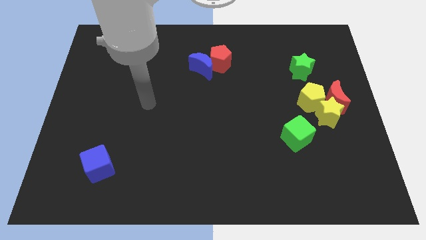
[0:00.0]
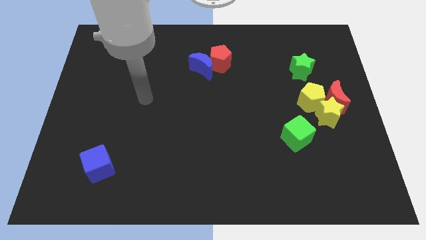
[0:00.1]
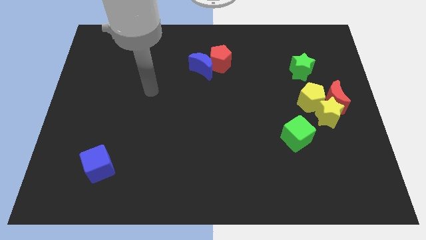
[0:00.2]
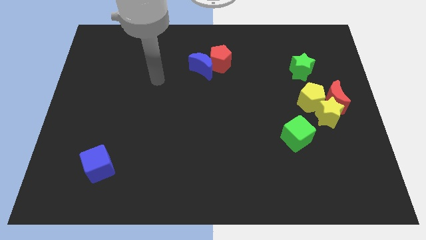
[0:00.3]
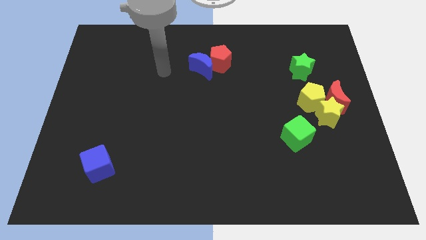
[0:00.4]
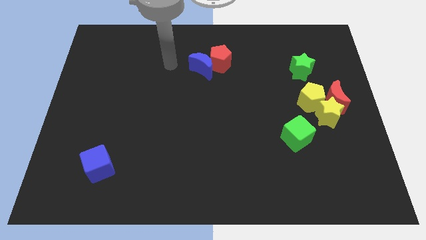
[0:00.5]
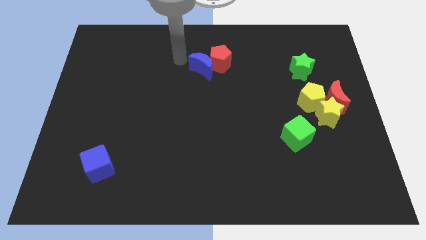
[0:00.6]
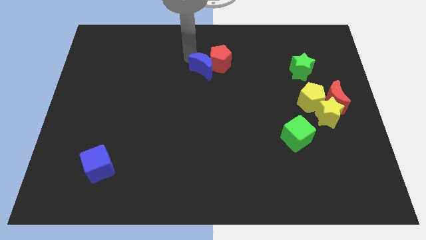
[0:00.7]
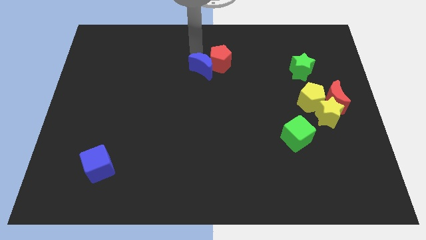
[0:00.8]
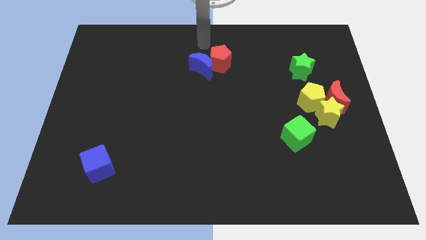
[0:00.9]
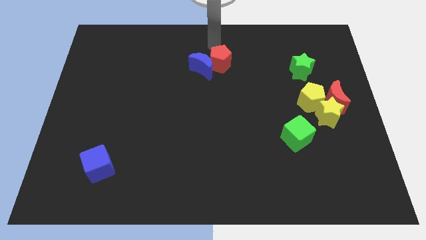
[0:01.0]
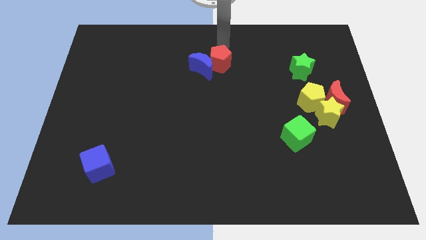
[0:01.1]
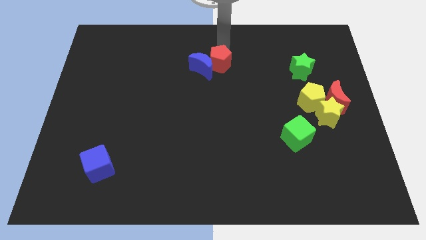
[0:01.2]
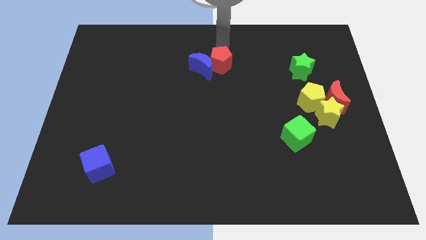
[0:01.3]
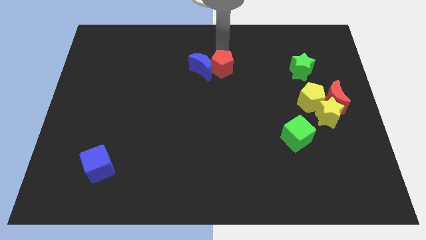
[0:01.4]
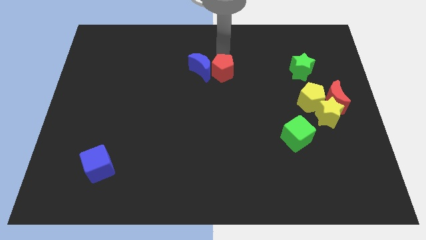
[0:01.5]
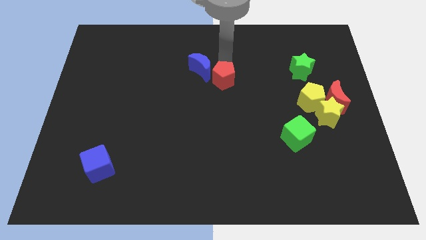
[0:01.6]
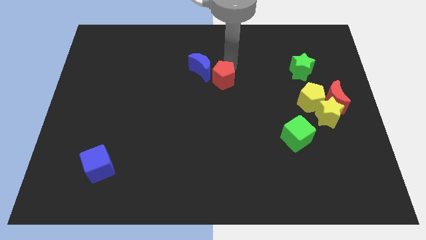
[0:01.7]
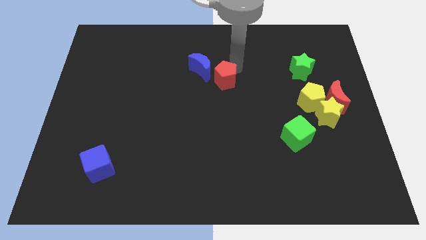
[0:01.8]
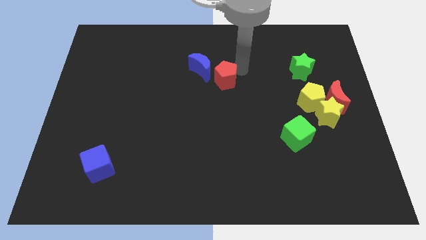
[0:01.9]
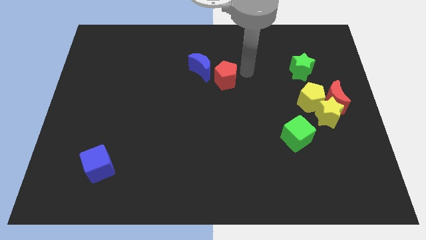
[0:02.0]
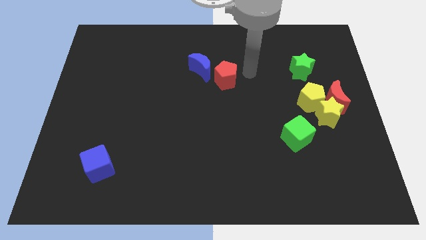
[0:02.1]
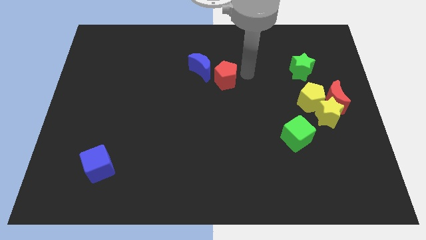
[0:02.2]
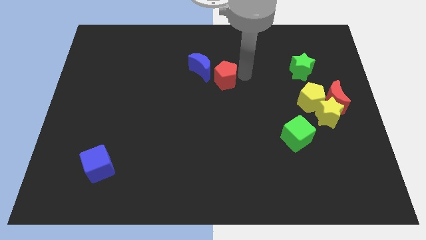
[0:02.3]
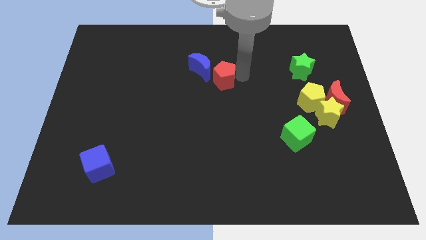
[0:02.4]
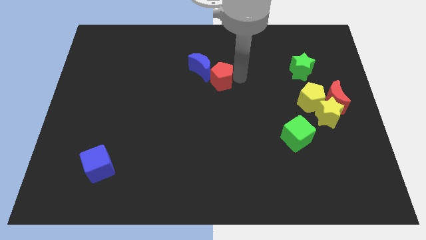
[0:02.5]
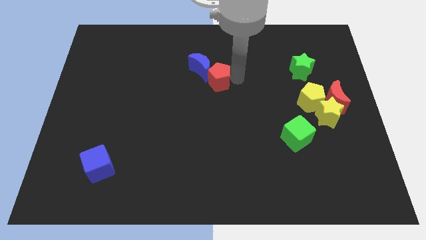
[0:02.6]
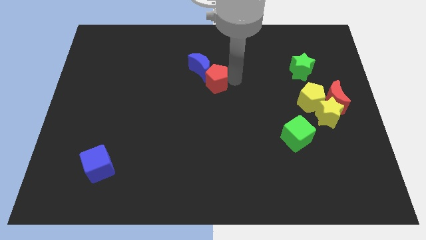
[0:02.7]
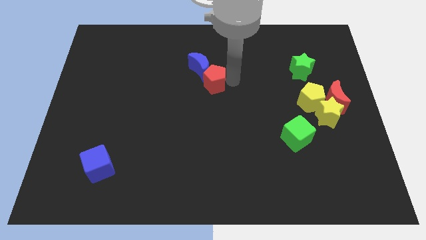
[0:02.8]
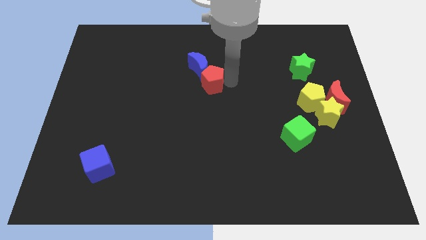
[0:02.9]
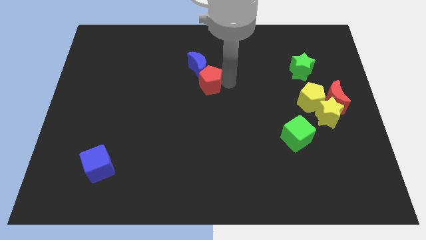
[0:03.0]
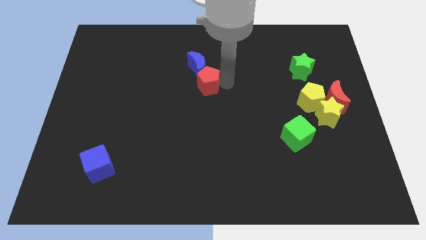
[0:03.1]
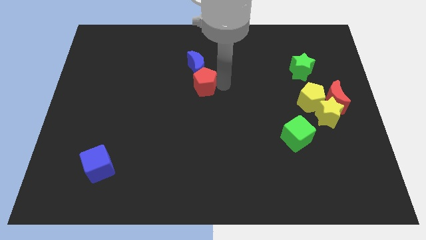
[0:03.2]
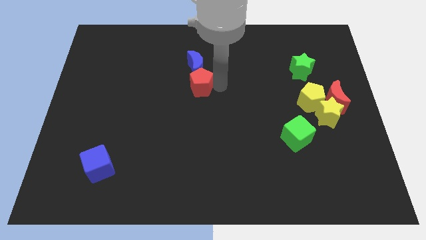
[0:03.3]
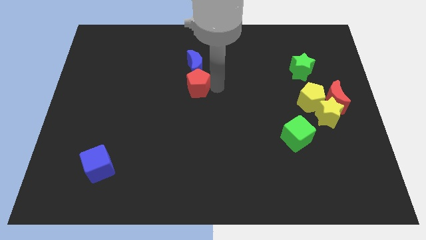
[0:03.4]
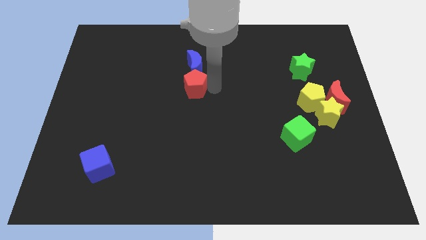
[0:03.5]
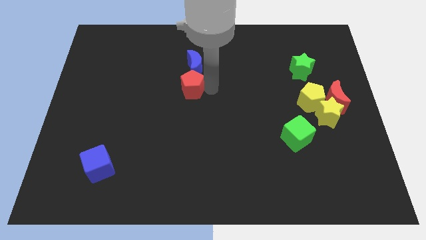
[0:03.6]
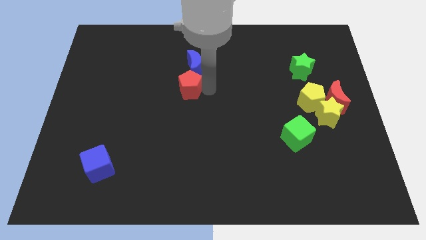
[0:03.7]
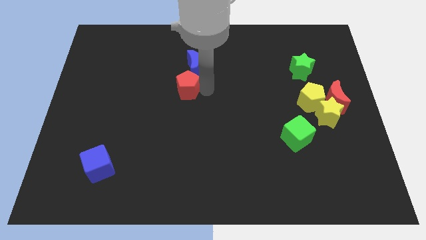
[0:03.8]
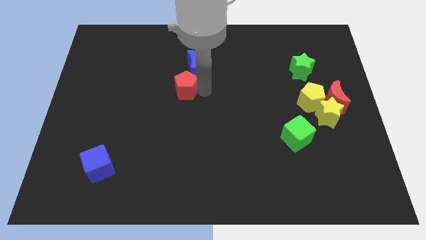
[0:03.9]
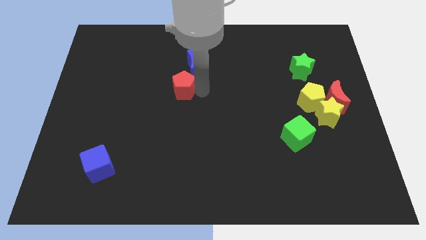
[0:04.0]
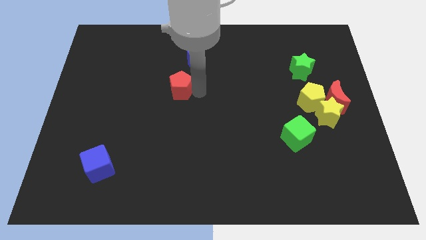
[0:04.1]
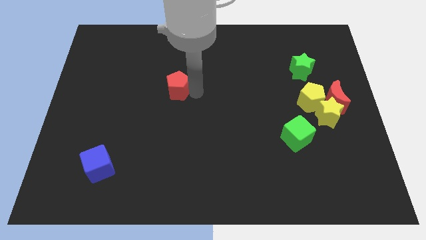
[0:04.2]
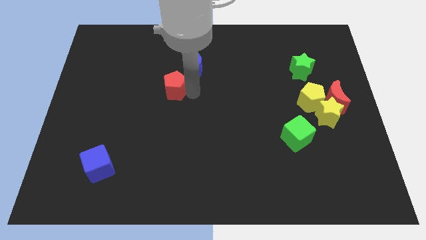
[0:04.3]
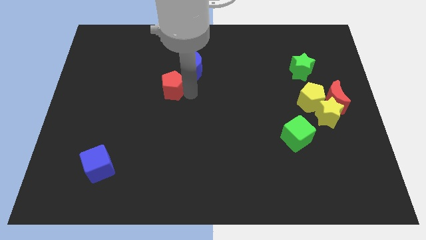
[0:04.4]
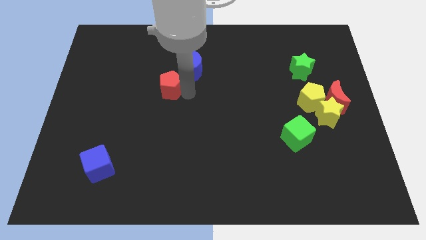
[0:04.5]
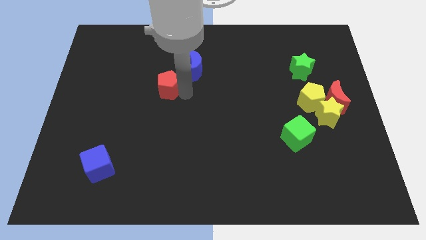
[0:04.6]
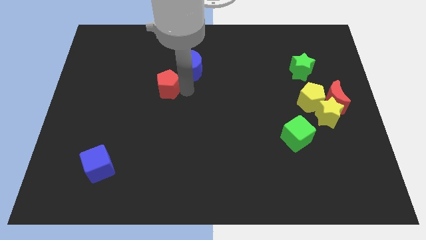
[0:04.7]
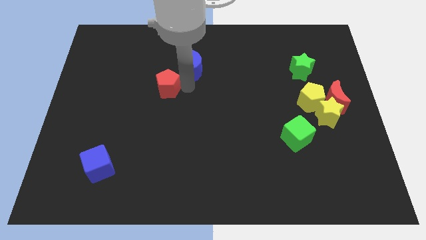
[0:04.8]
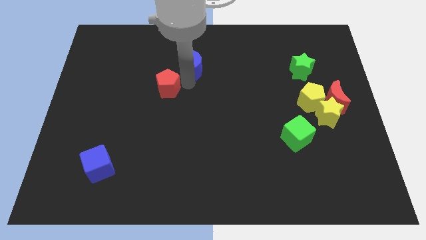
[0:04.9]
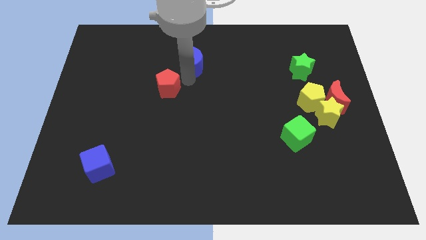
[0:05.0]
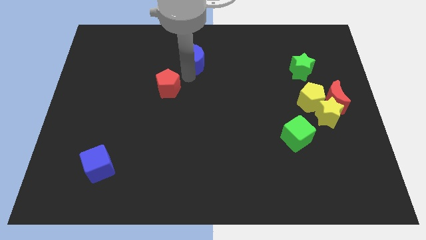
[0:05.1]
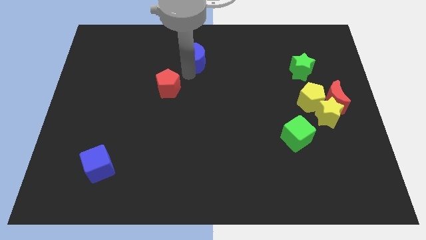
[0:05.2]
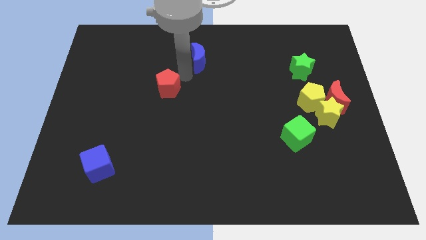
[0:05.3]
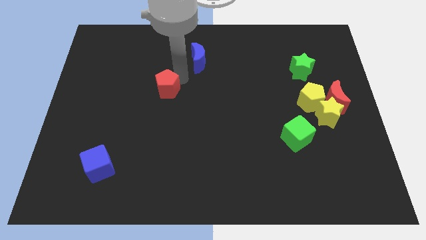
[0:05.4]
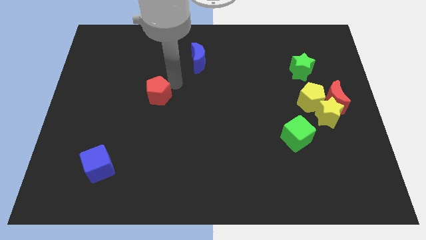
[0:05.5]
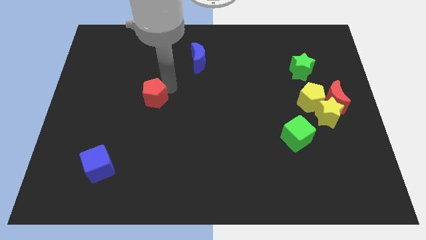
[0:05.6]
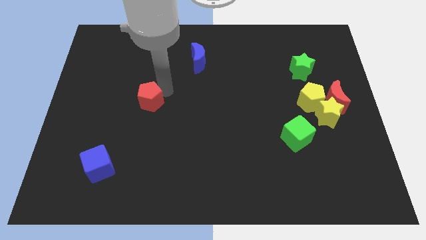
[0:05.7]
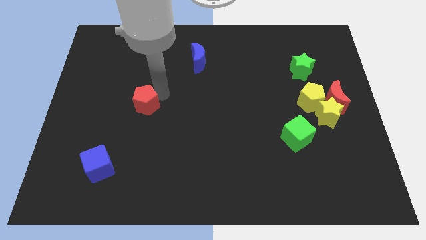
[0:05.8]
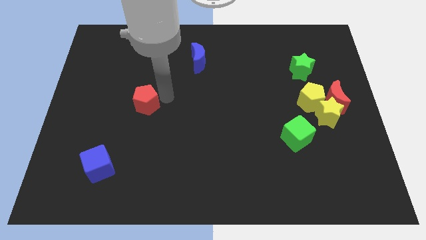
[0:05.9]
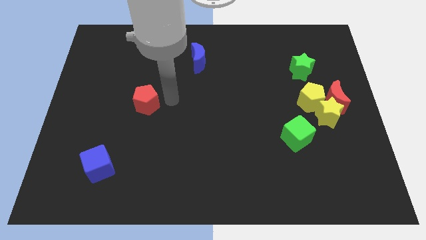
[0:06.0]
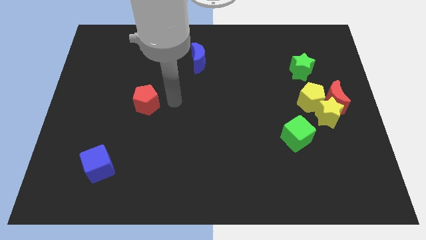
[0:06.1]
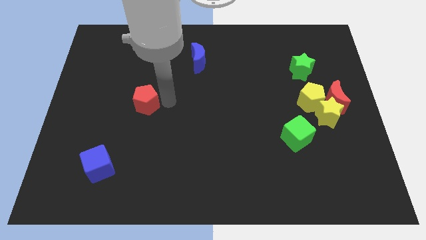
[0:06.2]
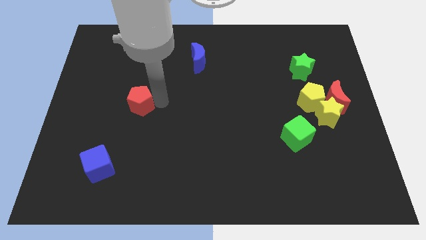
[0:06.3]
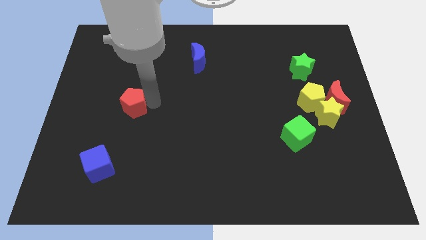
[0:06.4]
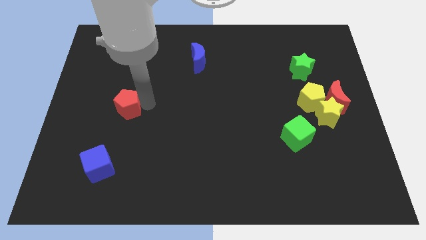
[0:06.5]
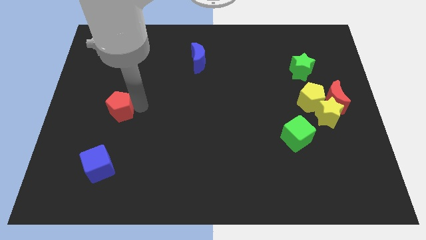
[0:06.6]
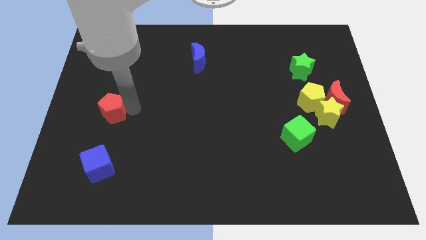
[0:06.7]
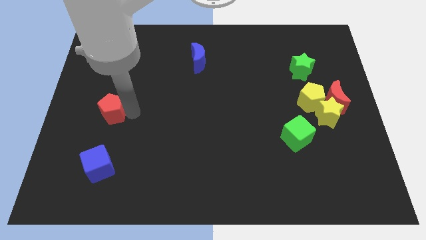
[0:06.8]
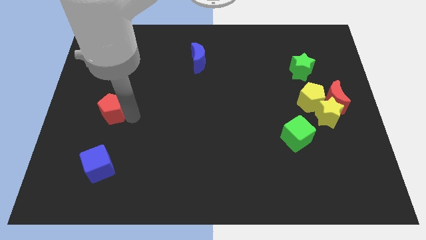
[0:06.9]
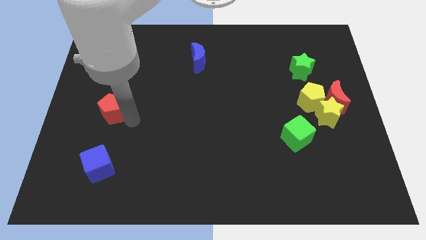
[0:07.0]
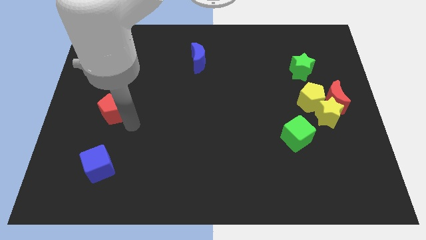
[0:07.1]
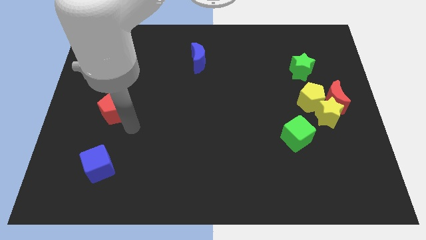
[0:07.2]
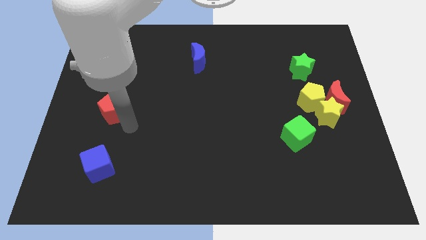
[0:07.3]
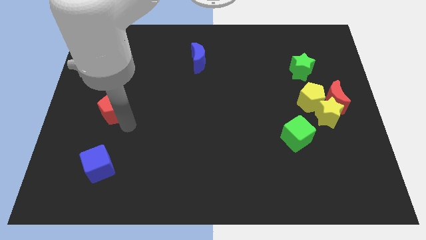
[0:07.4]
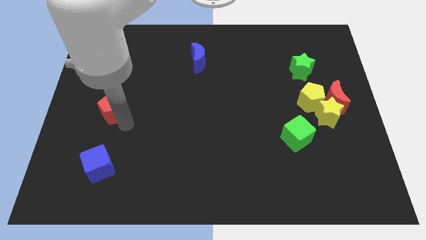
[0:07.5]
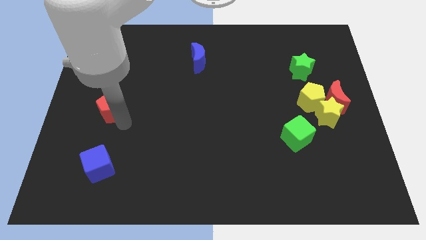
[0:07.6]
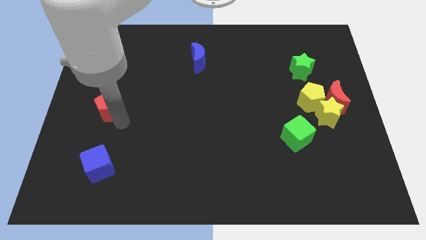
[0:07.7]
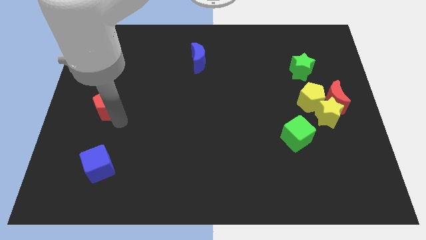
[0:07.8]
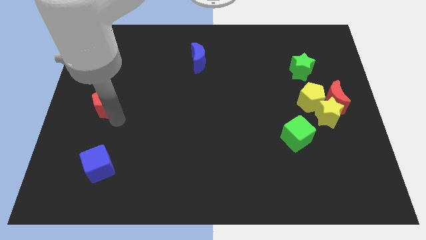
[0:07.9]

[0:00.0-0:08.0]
slide the red pentagon to the left side of the board
